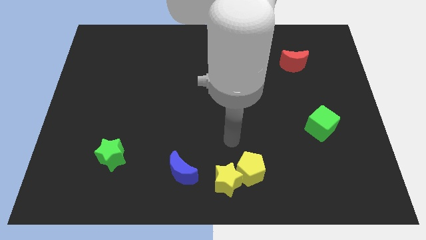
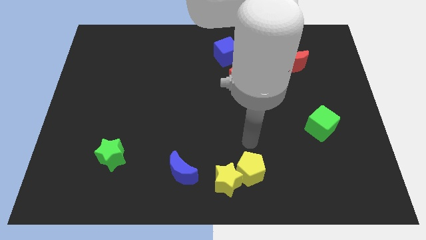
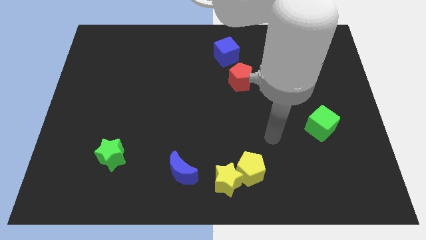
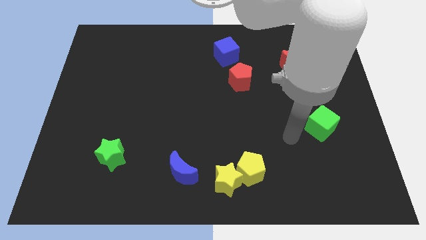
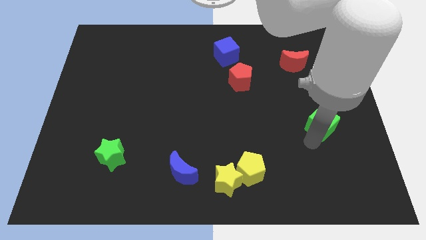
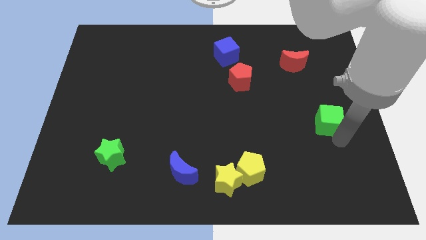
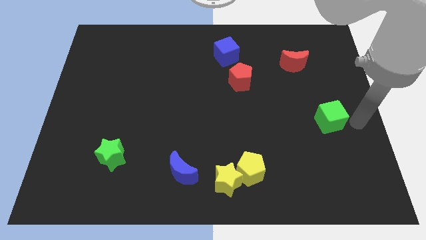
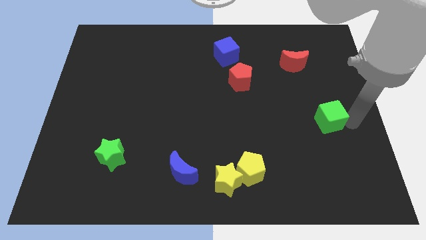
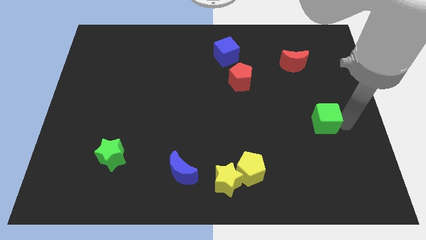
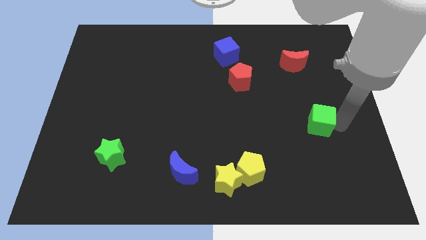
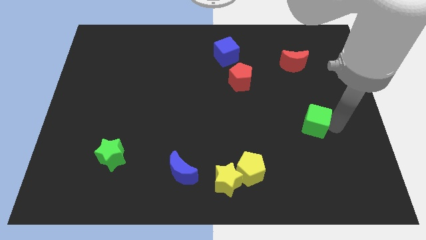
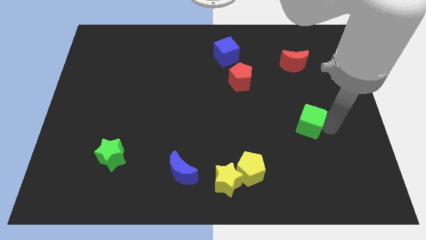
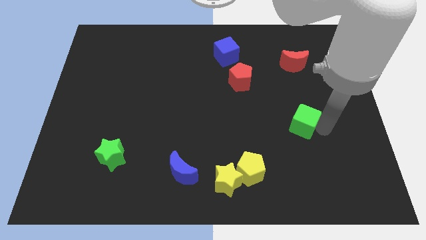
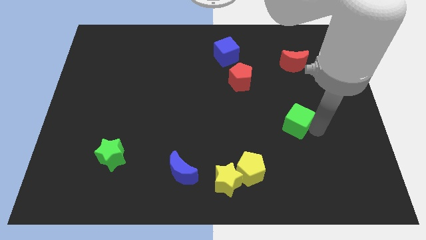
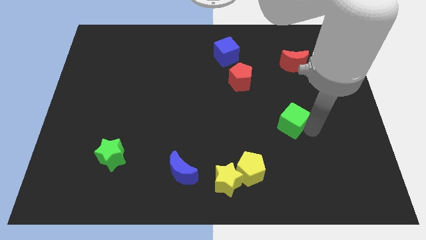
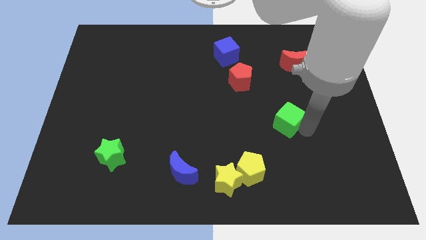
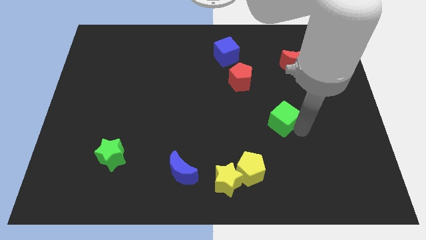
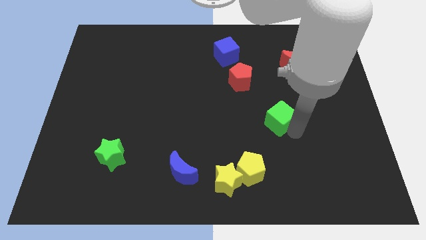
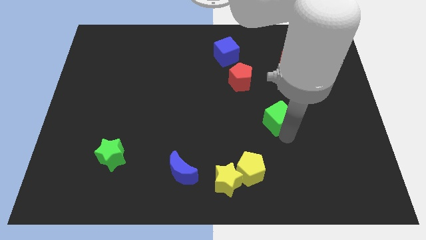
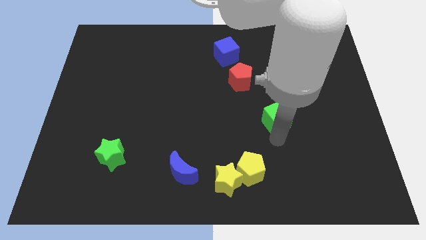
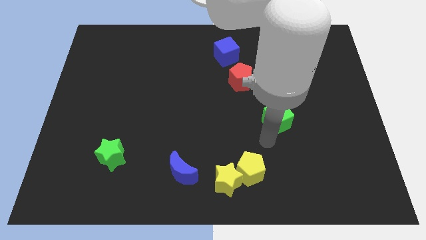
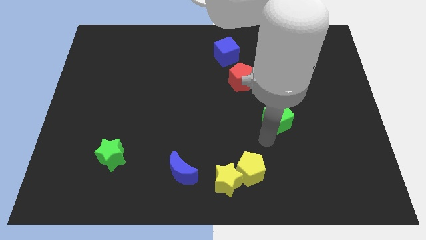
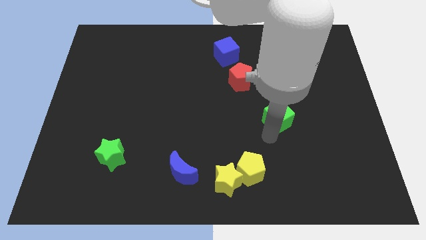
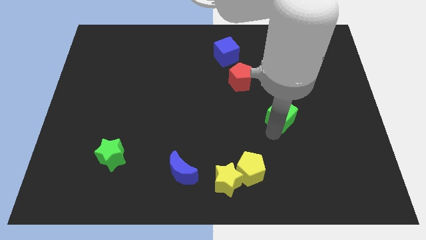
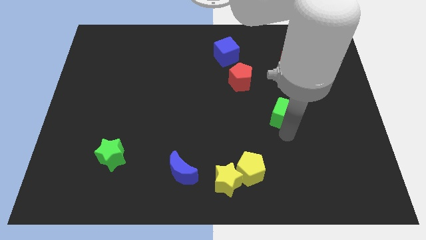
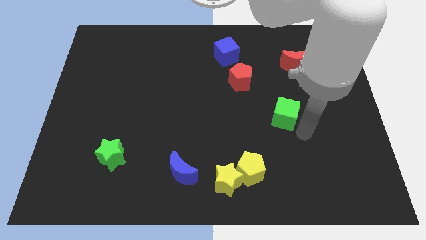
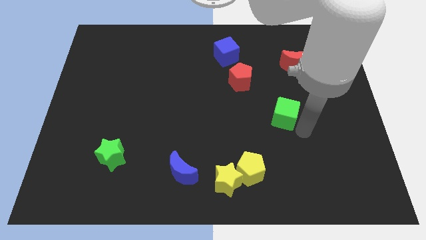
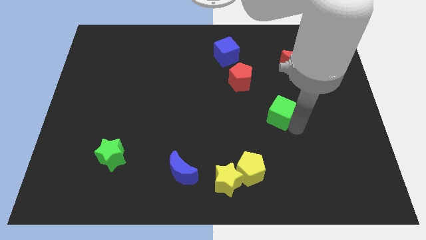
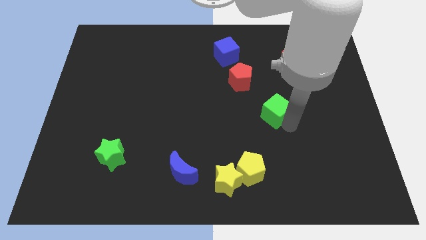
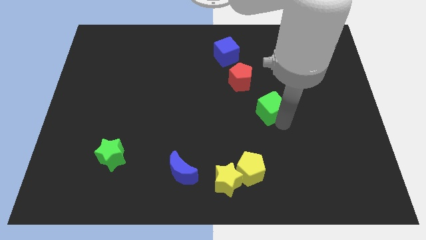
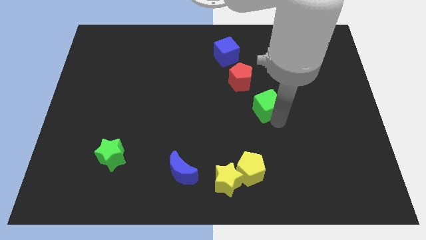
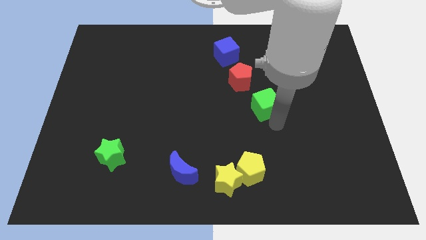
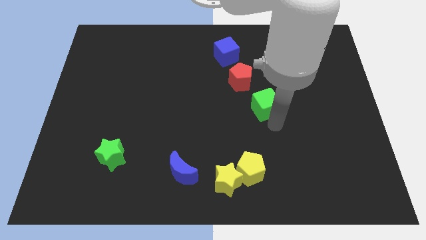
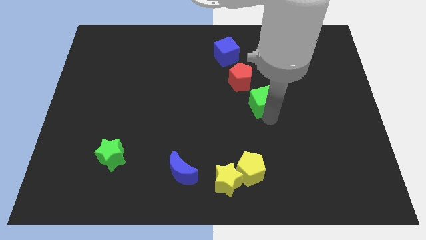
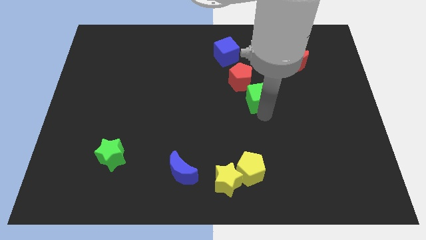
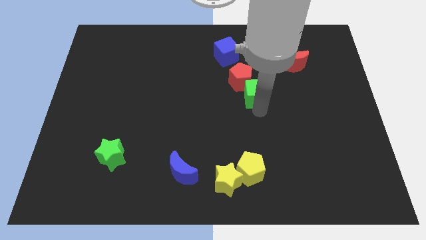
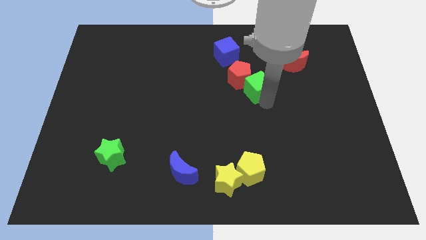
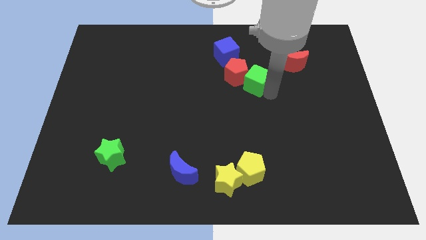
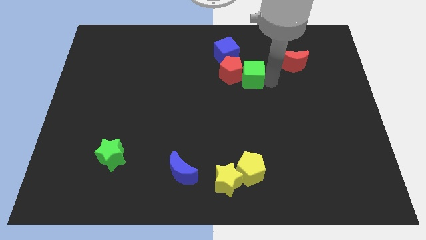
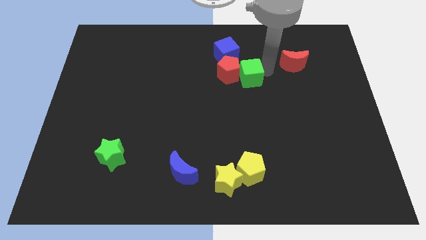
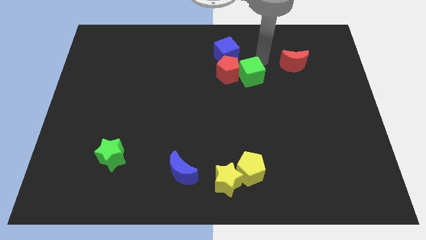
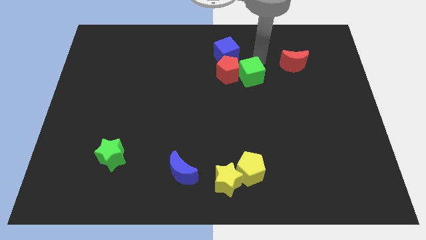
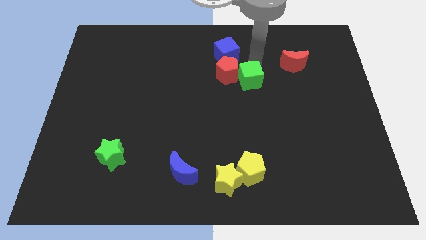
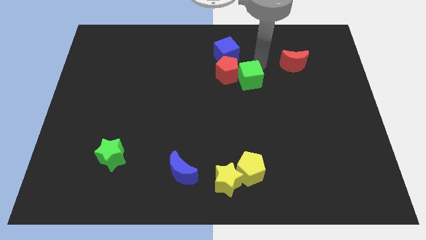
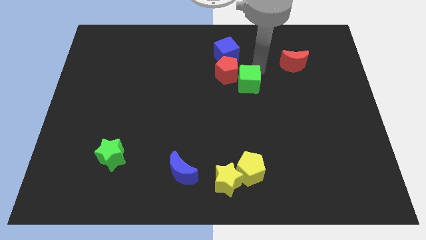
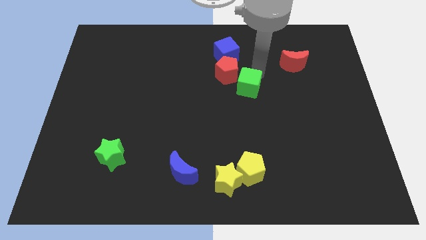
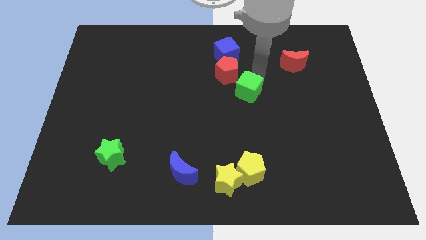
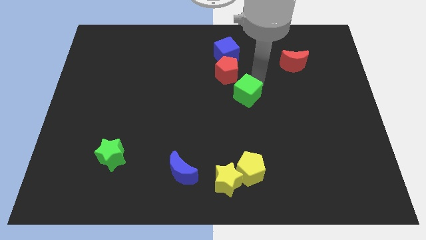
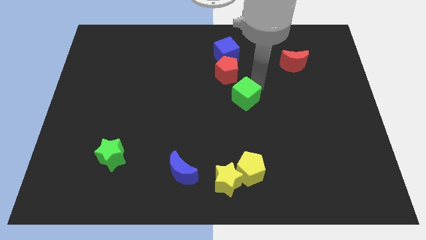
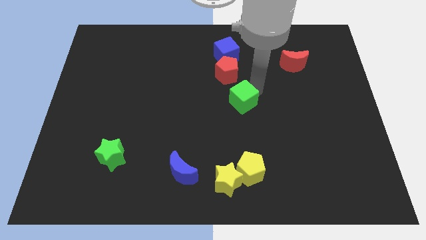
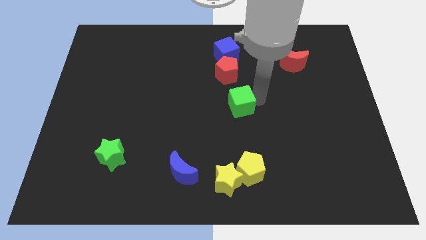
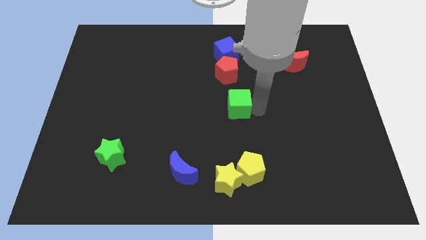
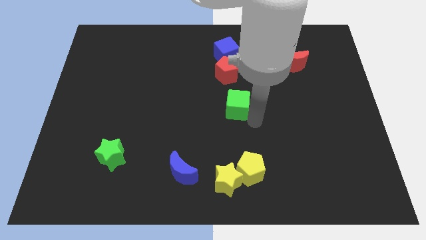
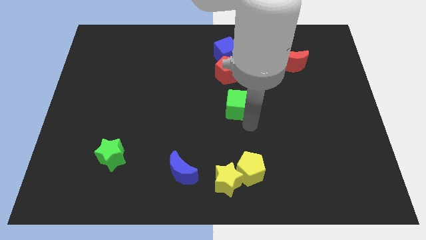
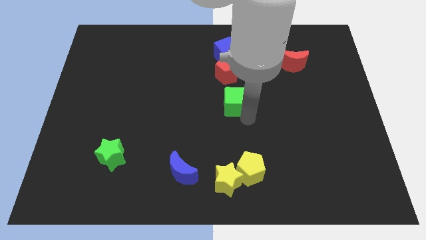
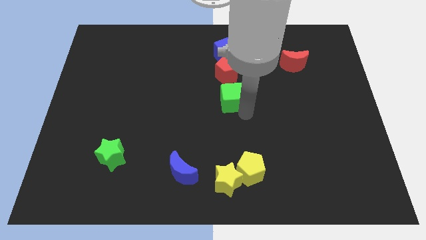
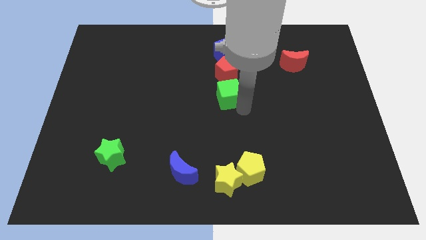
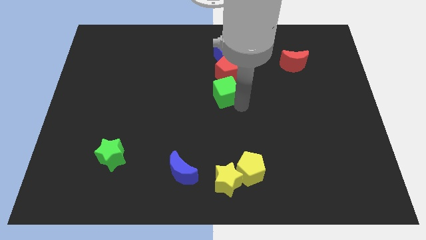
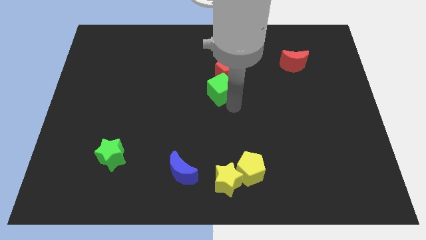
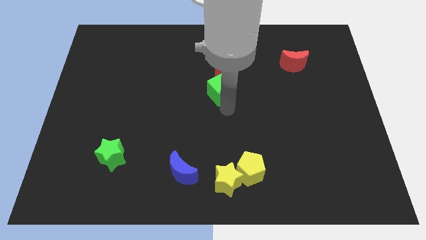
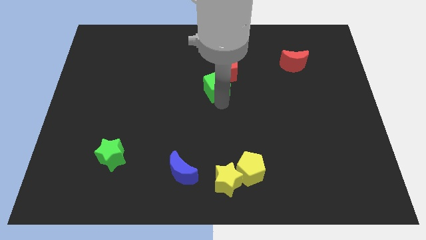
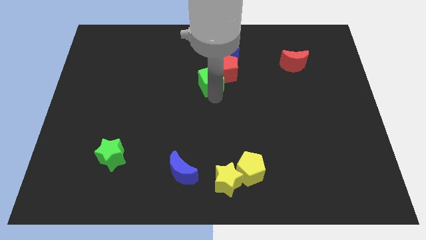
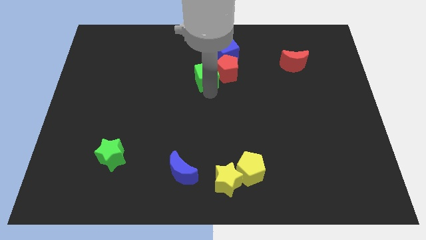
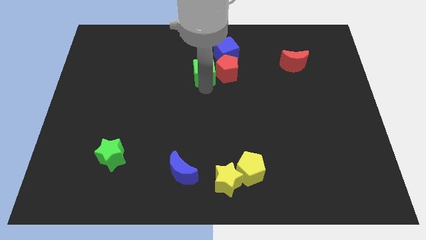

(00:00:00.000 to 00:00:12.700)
push the green cube to the top left side of the red pentagon

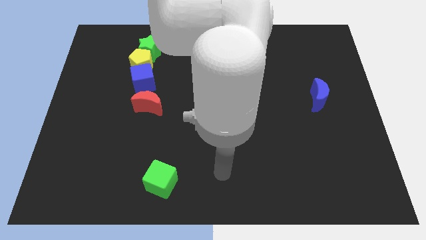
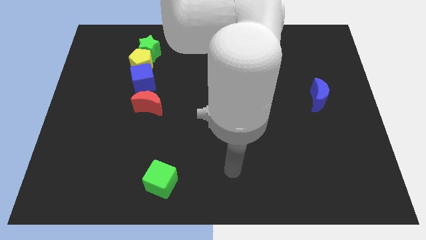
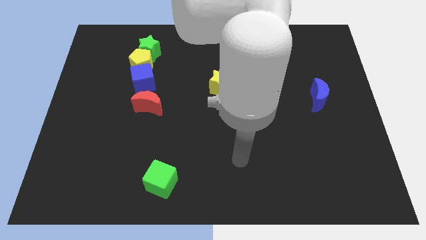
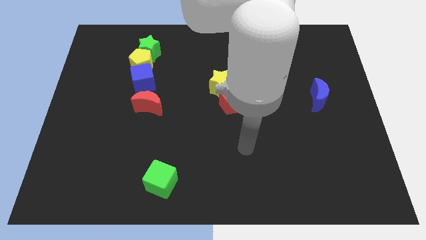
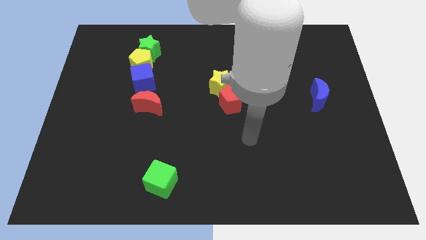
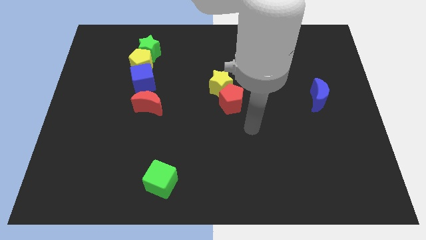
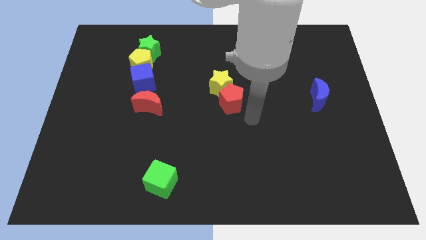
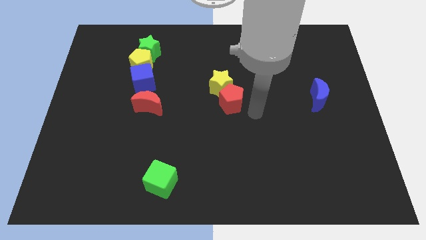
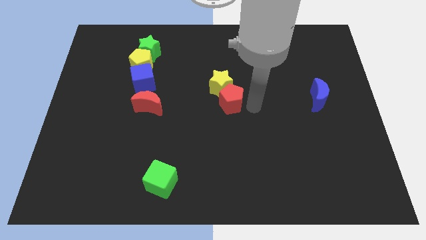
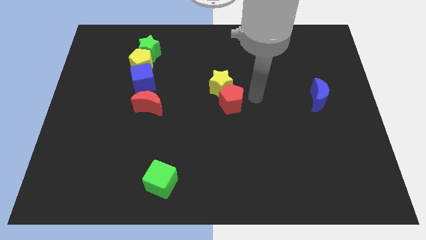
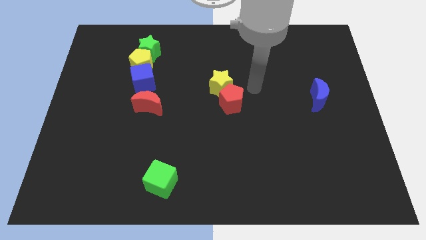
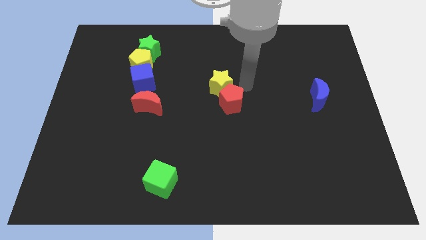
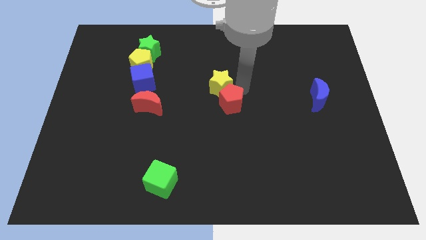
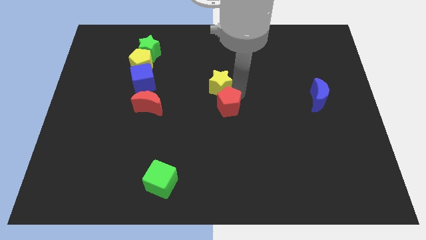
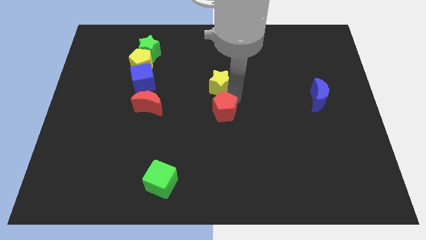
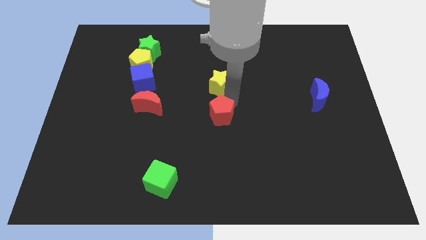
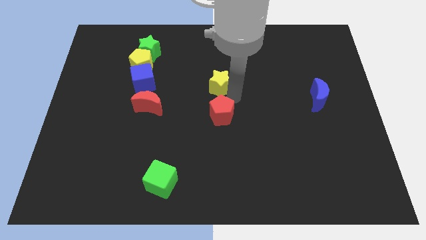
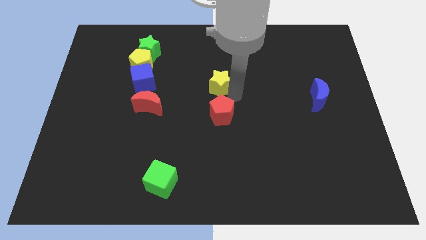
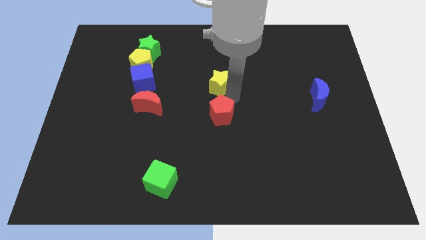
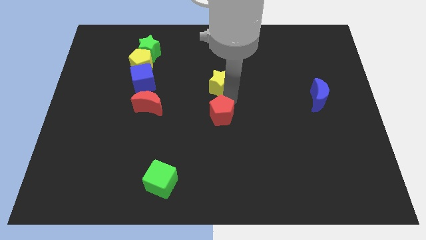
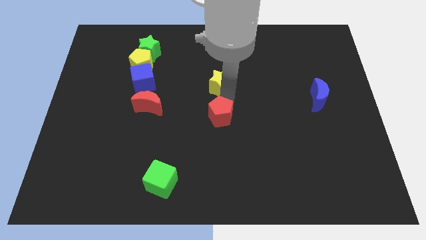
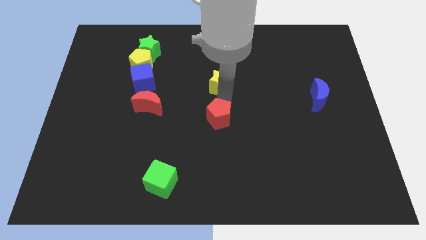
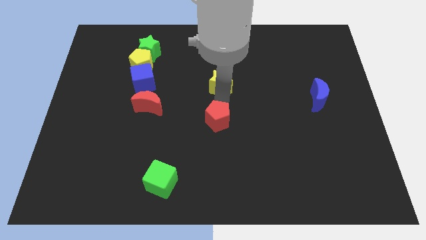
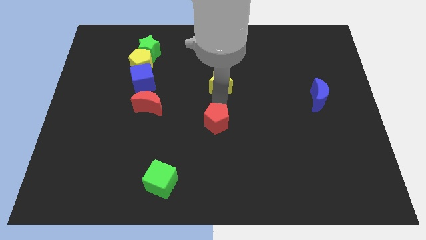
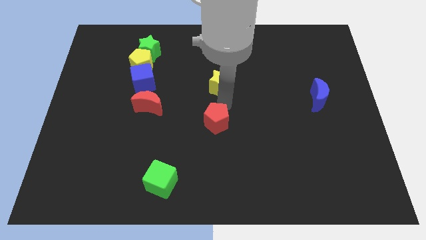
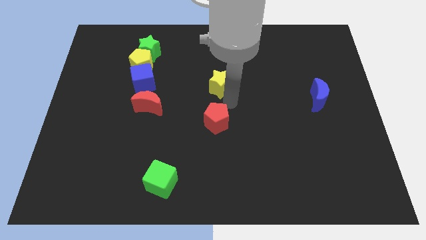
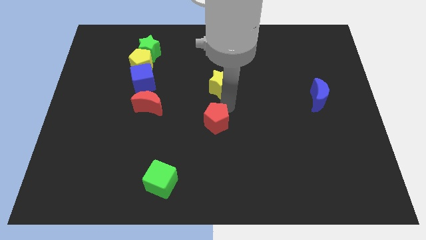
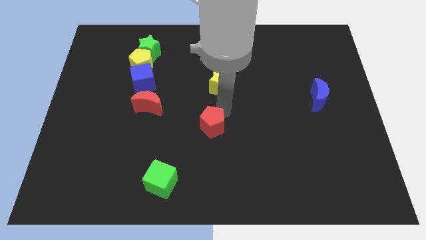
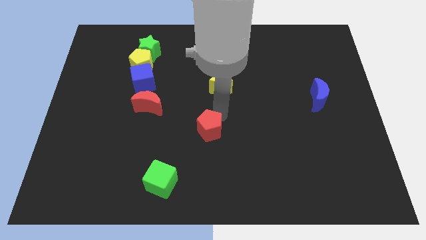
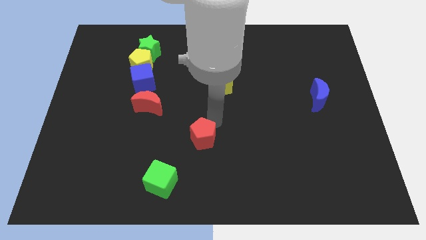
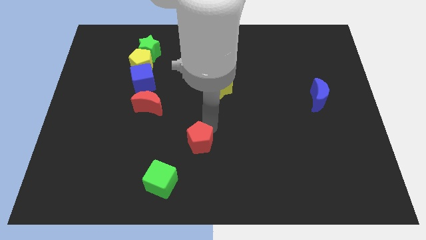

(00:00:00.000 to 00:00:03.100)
move the red pentagon to the top right of the green cube
